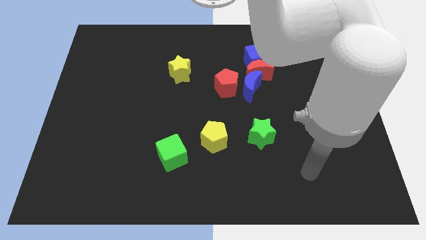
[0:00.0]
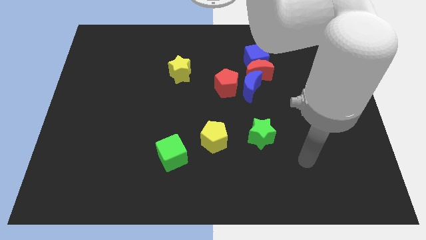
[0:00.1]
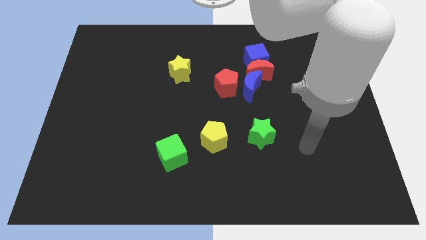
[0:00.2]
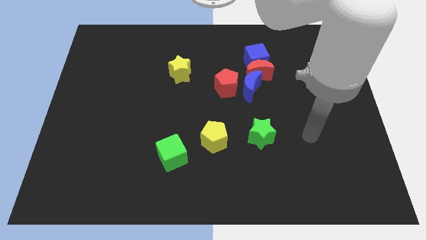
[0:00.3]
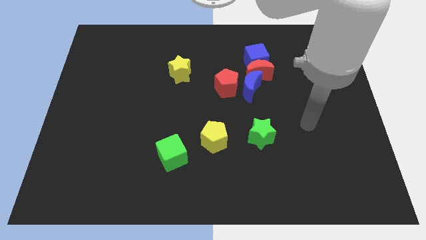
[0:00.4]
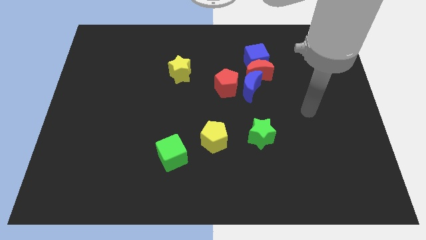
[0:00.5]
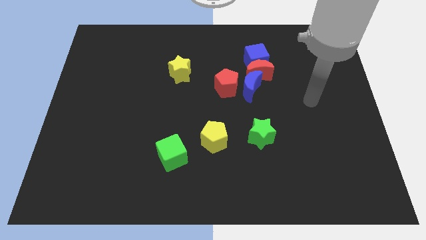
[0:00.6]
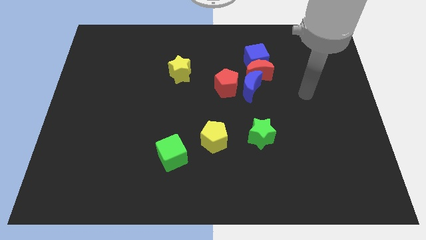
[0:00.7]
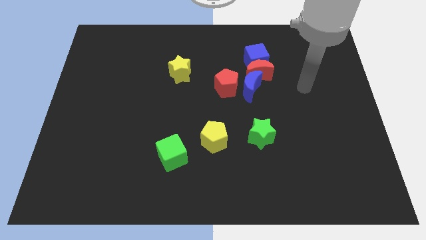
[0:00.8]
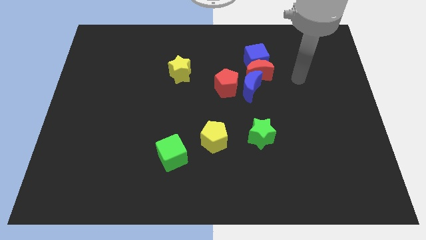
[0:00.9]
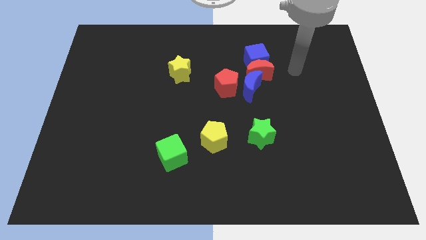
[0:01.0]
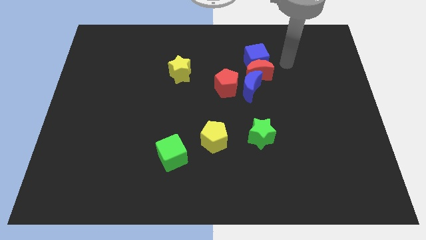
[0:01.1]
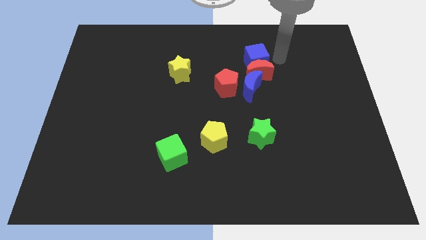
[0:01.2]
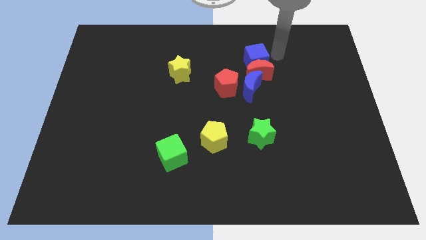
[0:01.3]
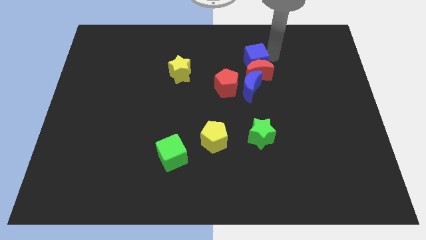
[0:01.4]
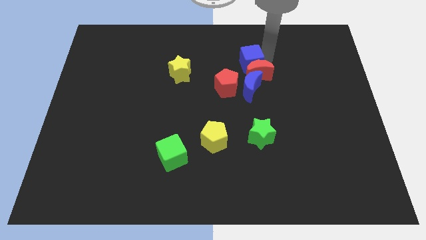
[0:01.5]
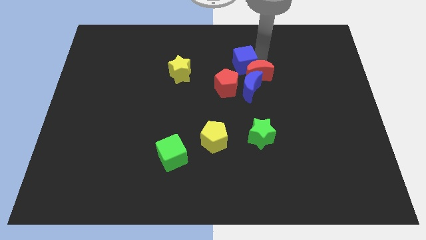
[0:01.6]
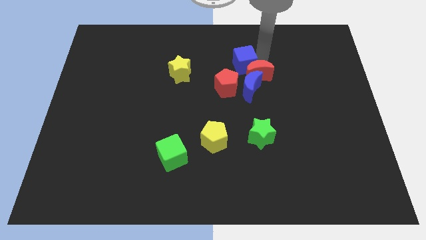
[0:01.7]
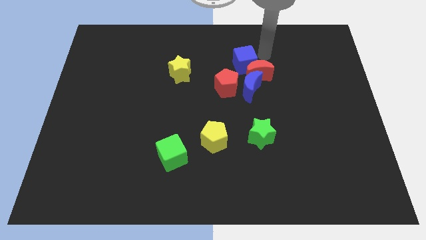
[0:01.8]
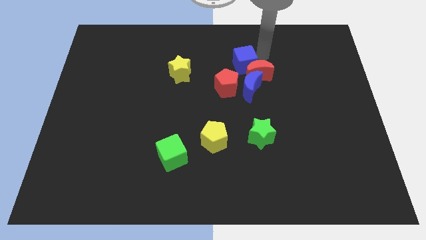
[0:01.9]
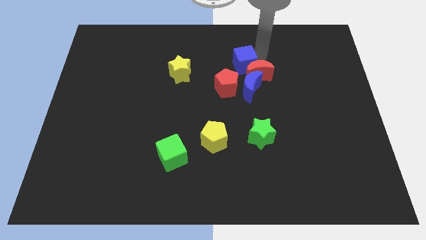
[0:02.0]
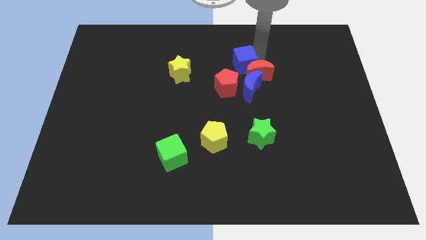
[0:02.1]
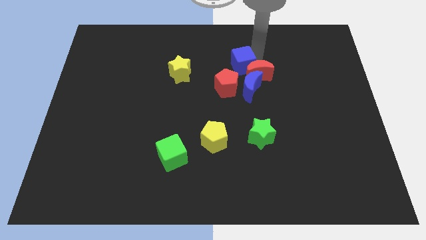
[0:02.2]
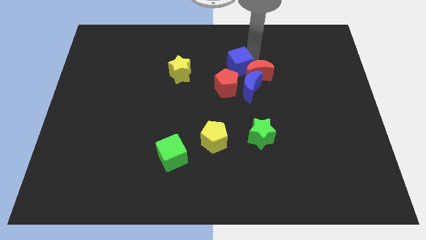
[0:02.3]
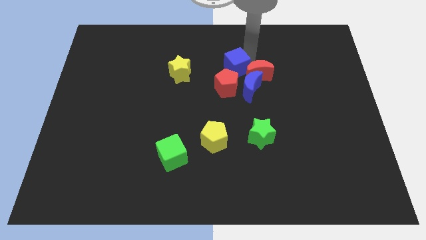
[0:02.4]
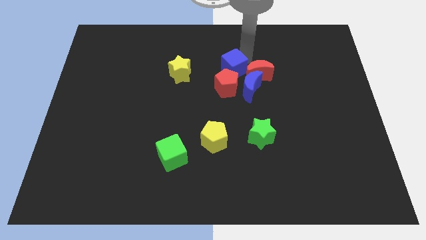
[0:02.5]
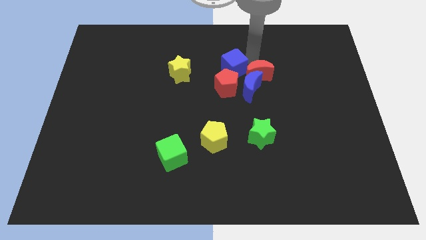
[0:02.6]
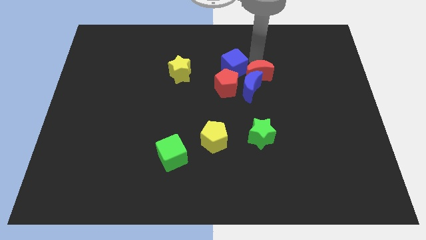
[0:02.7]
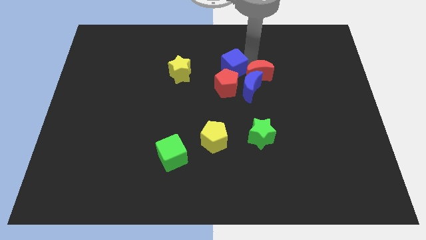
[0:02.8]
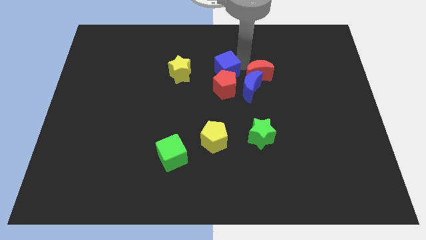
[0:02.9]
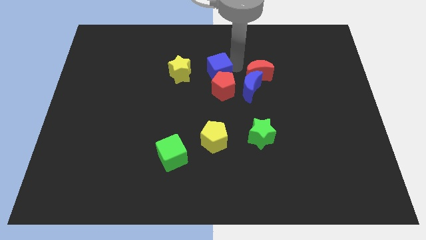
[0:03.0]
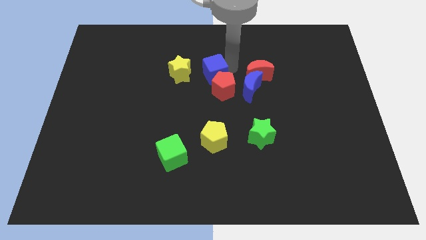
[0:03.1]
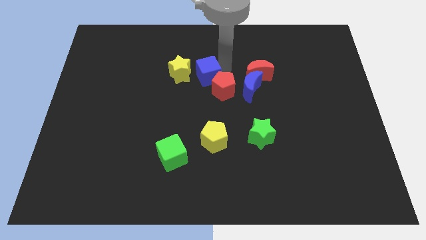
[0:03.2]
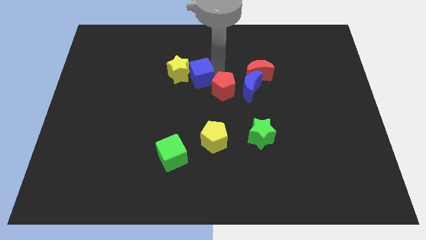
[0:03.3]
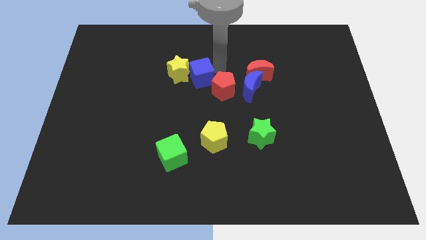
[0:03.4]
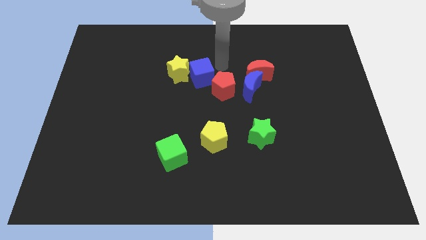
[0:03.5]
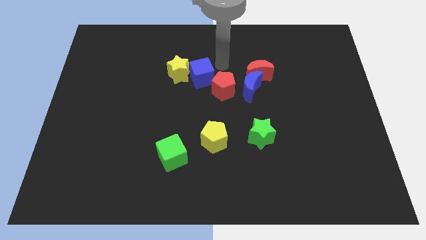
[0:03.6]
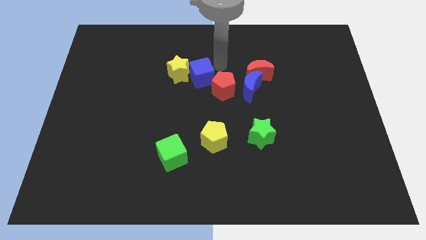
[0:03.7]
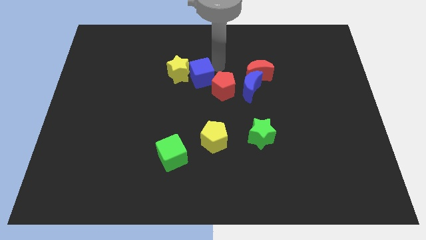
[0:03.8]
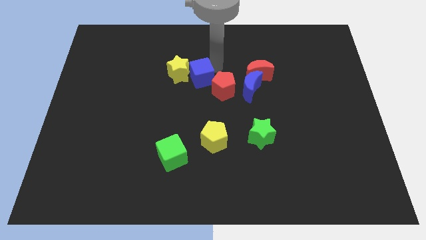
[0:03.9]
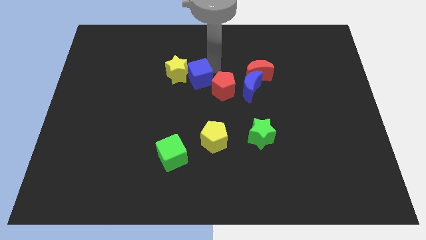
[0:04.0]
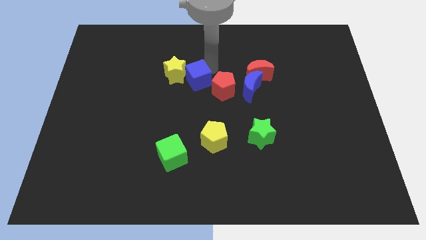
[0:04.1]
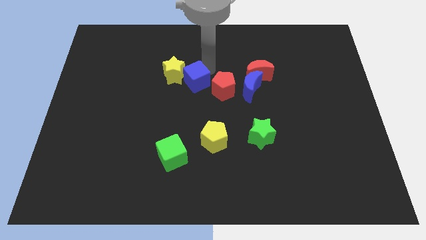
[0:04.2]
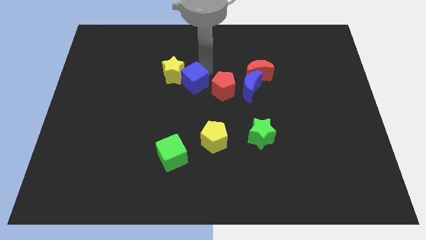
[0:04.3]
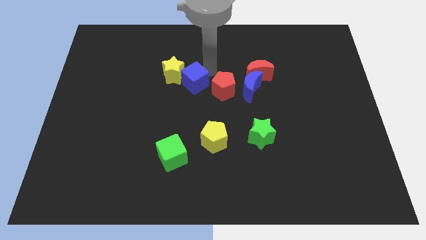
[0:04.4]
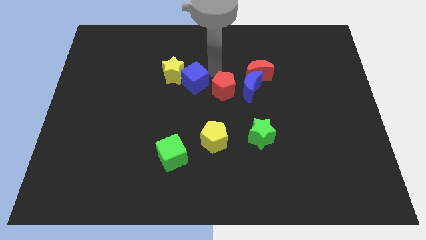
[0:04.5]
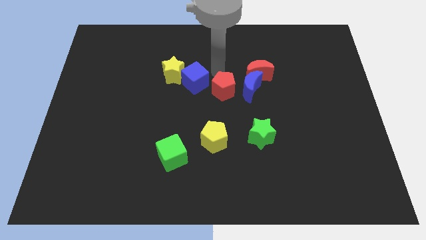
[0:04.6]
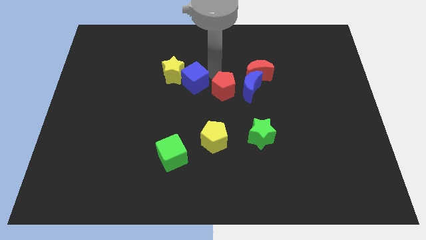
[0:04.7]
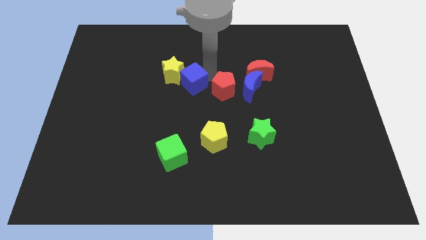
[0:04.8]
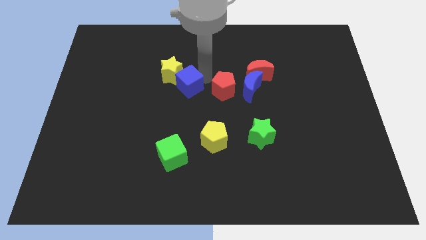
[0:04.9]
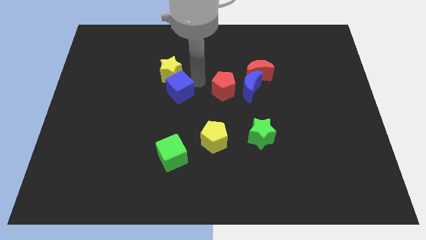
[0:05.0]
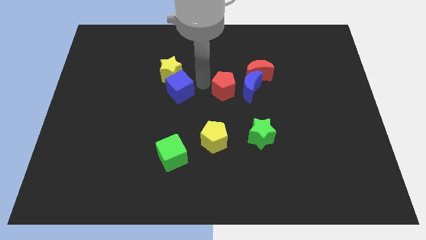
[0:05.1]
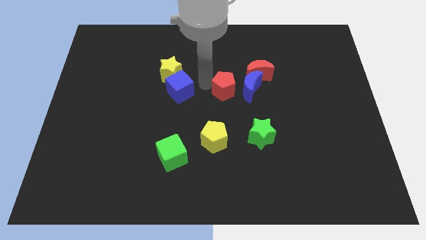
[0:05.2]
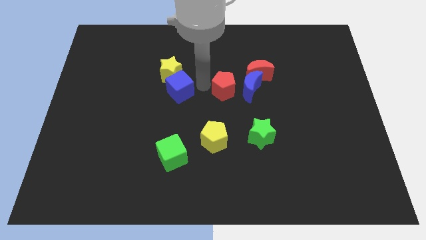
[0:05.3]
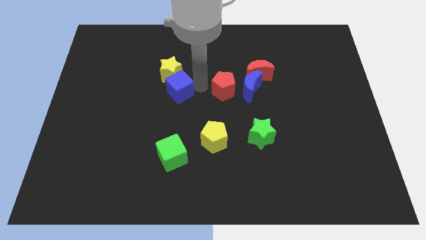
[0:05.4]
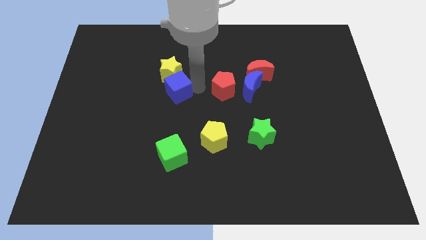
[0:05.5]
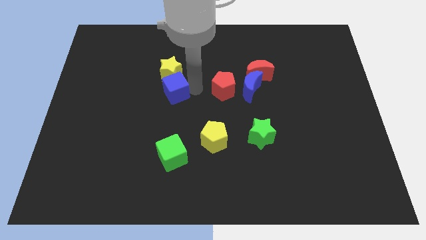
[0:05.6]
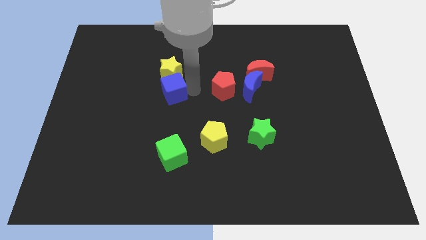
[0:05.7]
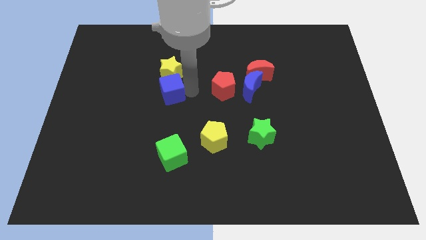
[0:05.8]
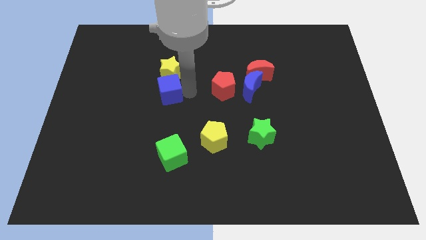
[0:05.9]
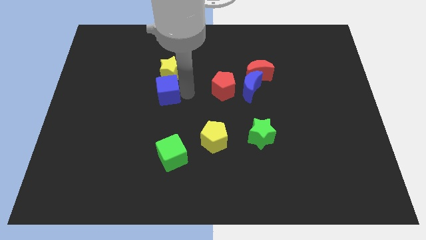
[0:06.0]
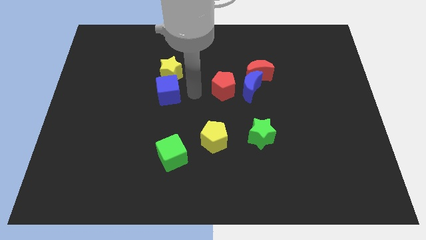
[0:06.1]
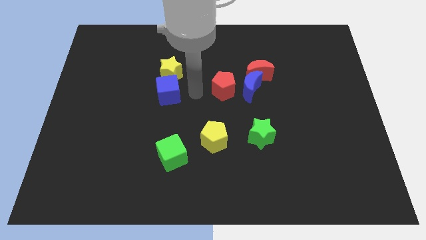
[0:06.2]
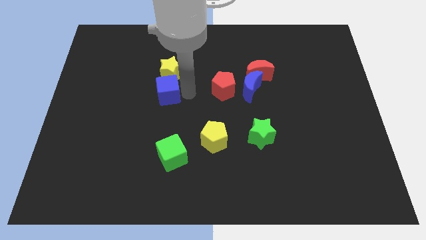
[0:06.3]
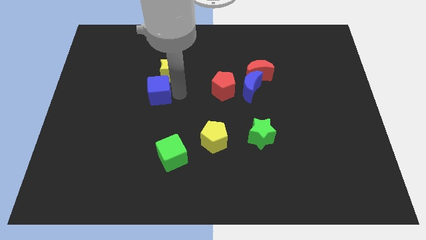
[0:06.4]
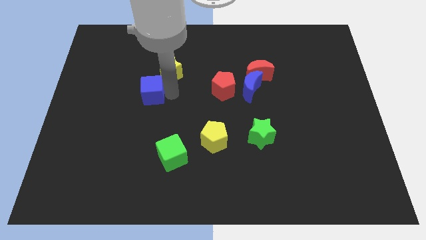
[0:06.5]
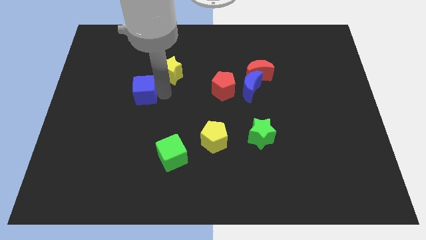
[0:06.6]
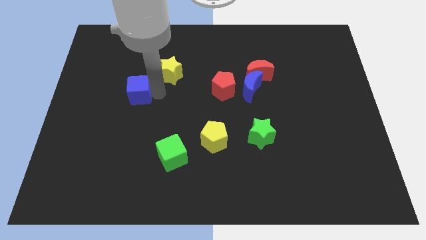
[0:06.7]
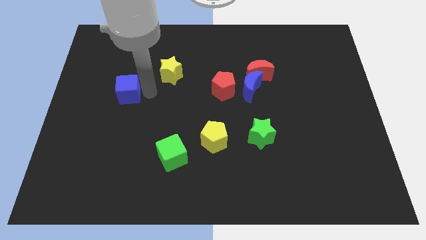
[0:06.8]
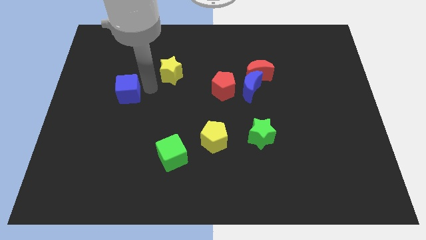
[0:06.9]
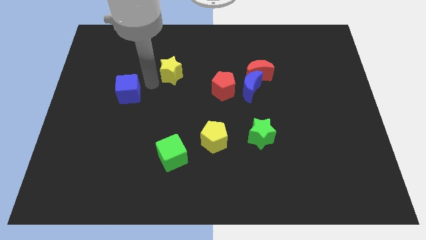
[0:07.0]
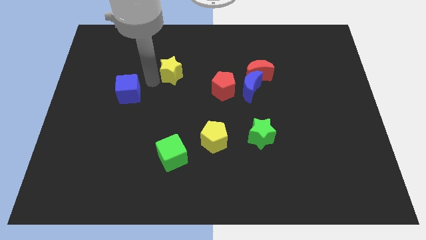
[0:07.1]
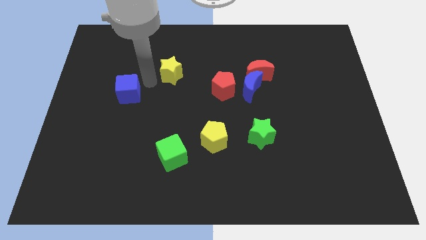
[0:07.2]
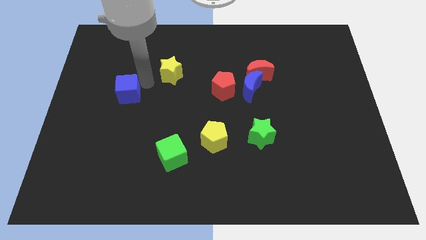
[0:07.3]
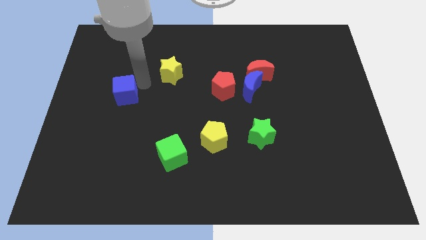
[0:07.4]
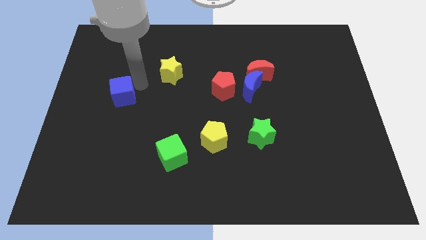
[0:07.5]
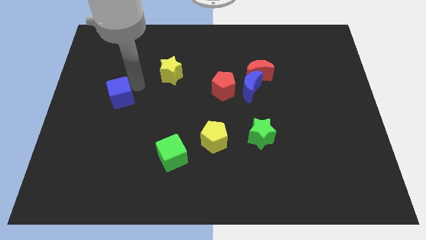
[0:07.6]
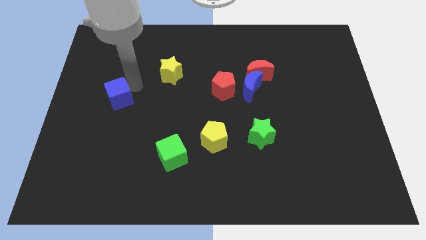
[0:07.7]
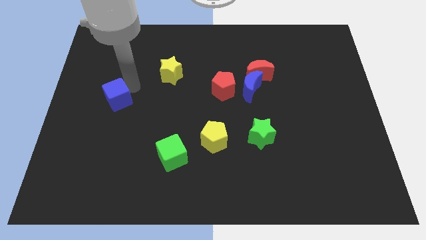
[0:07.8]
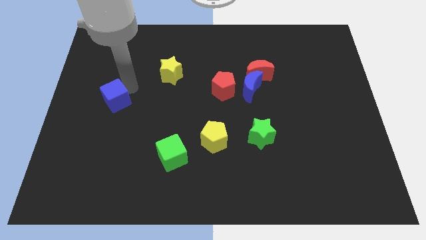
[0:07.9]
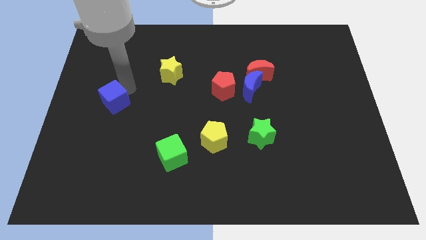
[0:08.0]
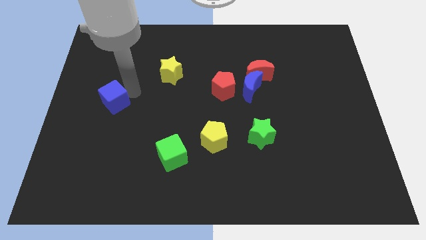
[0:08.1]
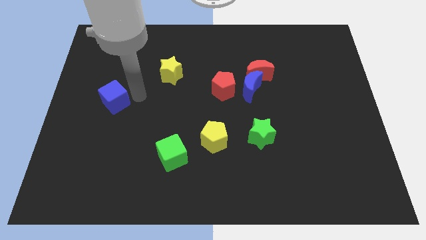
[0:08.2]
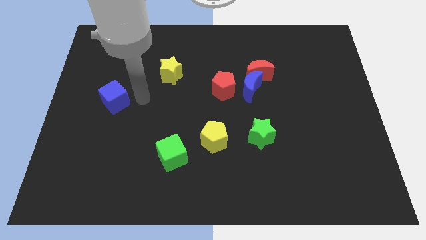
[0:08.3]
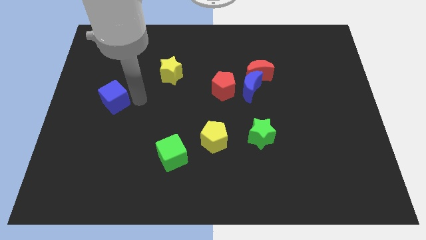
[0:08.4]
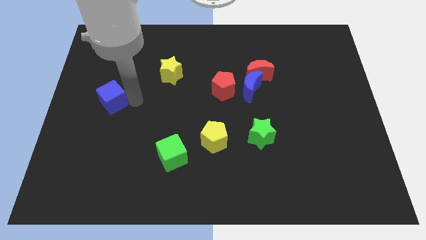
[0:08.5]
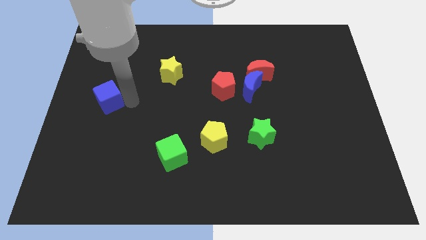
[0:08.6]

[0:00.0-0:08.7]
put the blue cube to the left side
